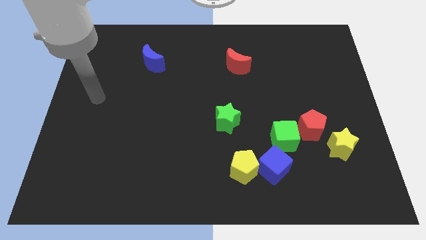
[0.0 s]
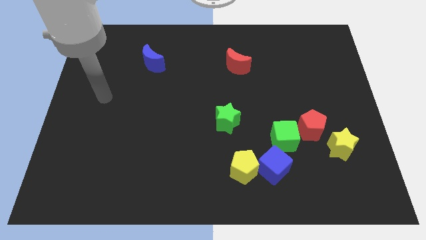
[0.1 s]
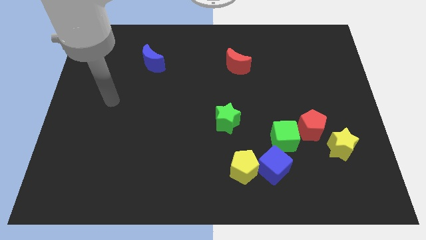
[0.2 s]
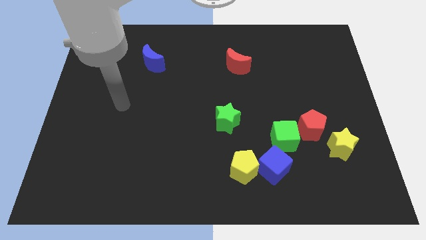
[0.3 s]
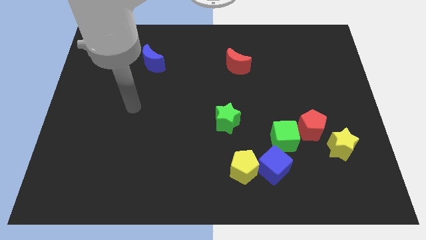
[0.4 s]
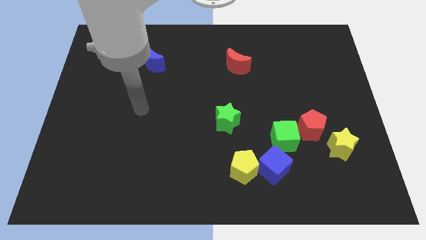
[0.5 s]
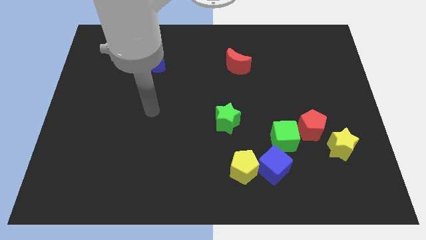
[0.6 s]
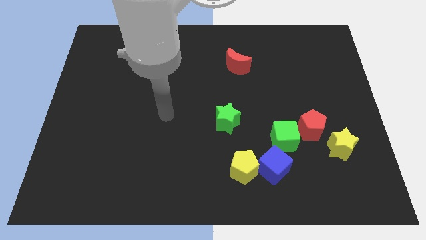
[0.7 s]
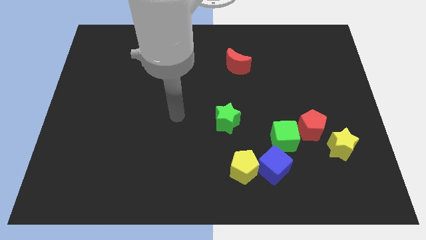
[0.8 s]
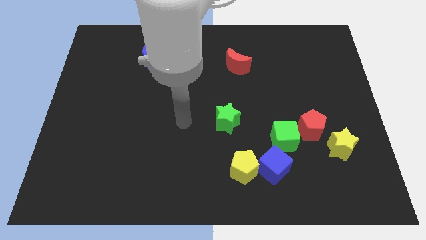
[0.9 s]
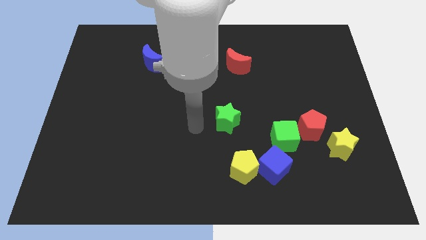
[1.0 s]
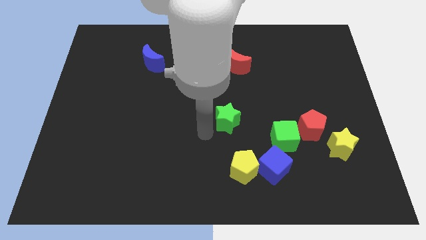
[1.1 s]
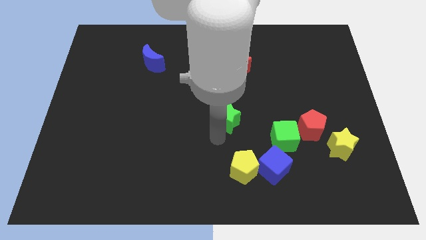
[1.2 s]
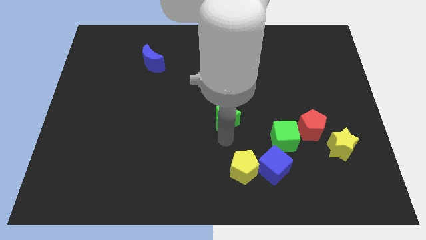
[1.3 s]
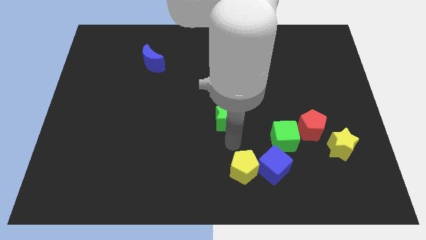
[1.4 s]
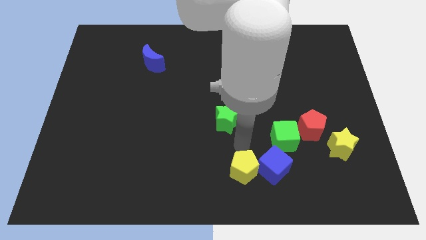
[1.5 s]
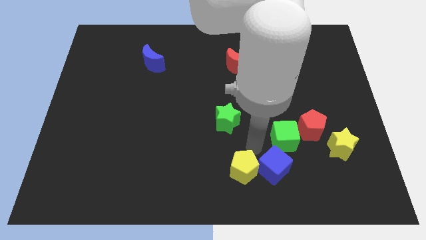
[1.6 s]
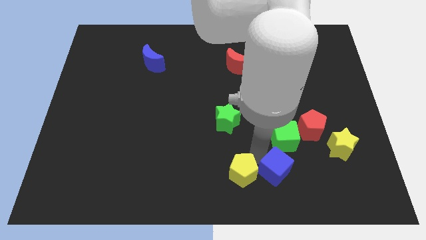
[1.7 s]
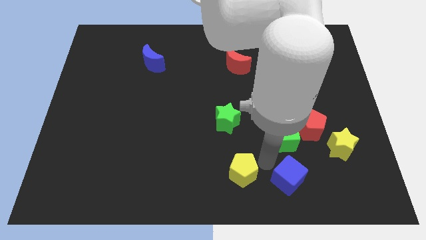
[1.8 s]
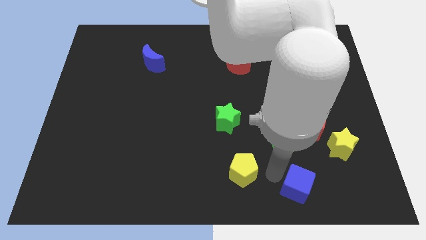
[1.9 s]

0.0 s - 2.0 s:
pull the yellow pentagon apart from the blue cube

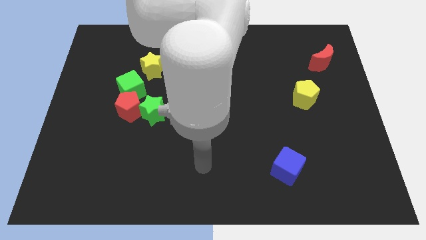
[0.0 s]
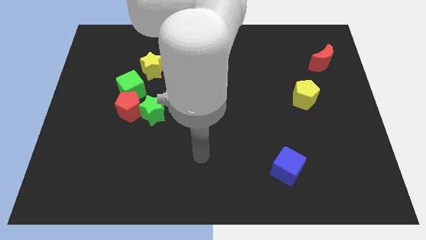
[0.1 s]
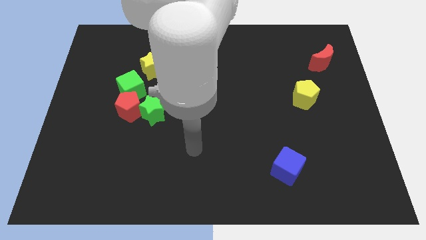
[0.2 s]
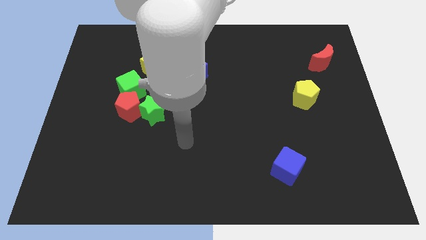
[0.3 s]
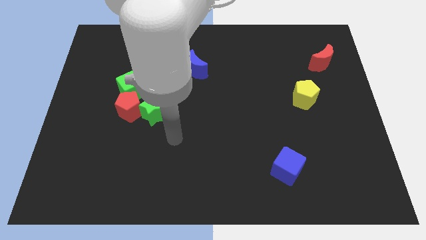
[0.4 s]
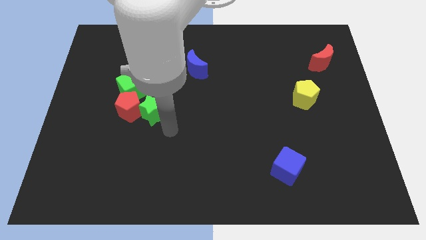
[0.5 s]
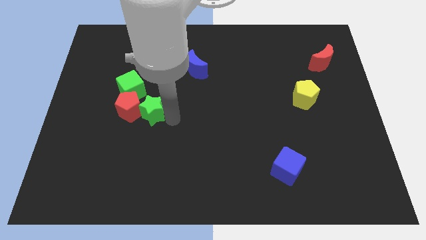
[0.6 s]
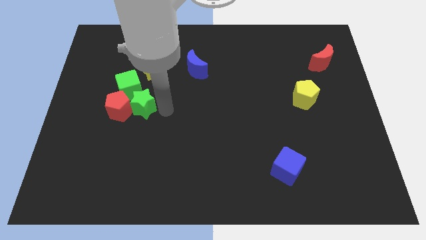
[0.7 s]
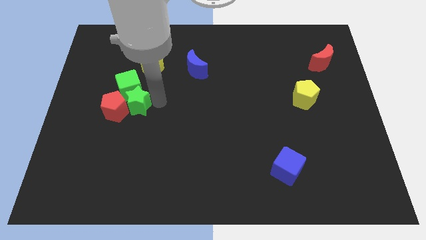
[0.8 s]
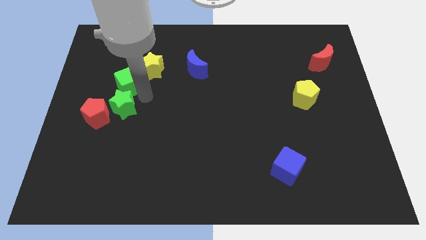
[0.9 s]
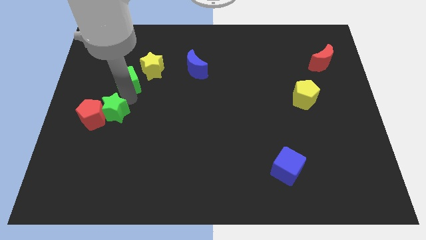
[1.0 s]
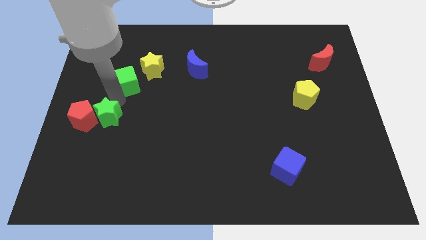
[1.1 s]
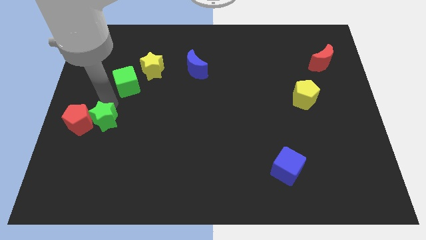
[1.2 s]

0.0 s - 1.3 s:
pull the red pentagon apart from the green cube and green star

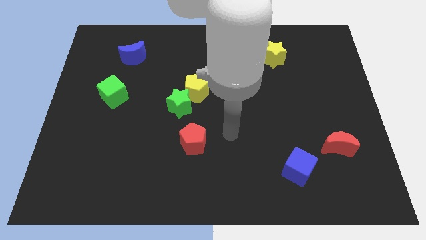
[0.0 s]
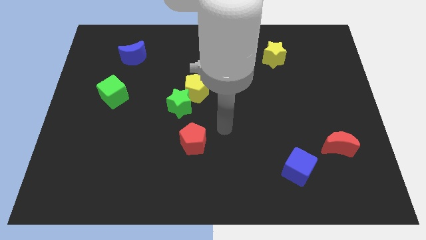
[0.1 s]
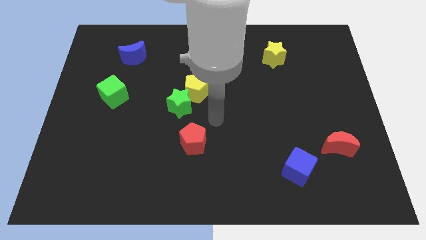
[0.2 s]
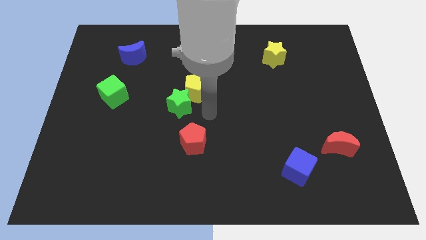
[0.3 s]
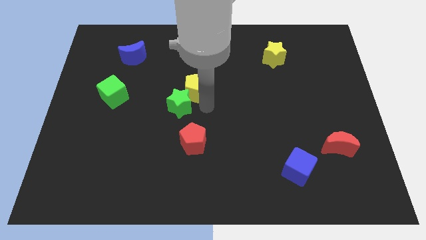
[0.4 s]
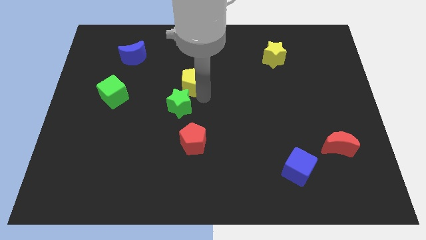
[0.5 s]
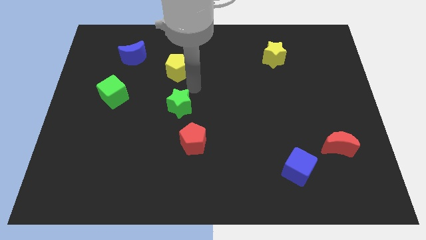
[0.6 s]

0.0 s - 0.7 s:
move the green star away from the yellow pentagon

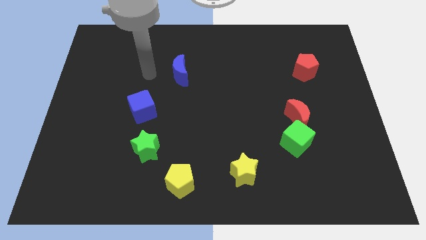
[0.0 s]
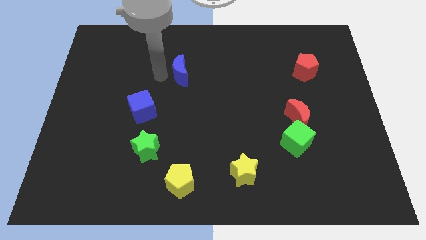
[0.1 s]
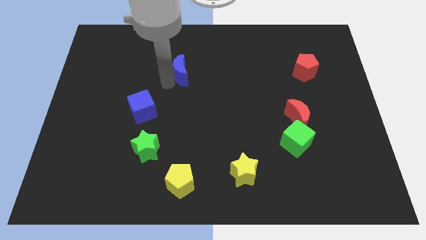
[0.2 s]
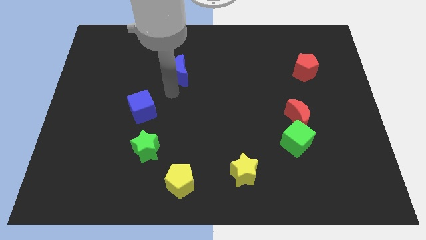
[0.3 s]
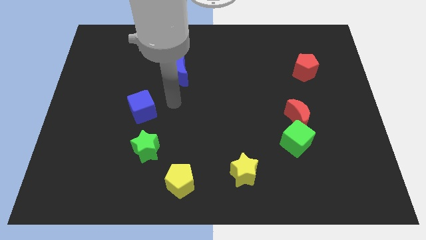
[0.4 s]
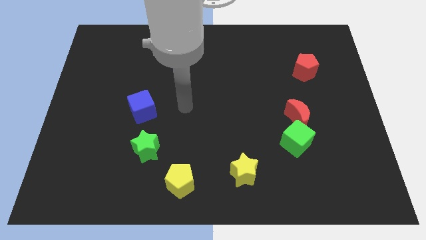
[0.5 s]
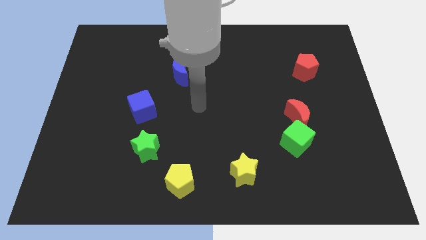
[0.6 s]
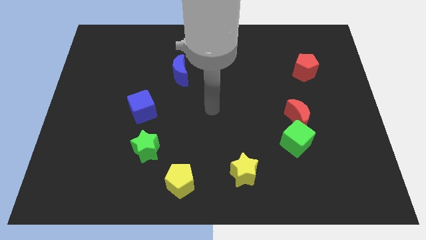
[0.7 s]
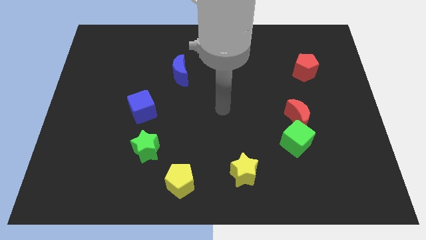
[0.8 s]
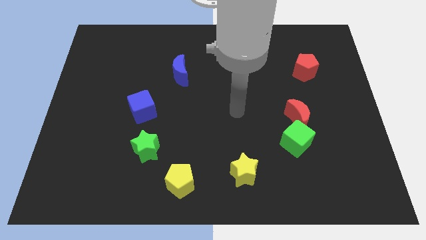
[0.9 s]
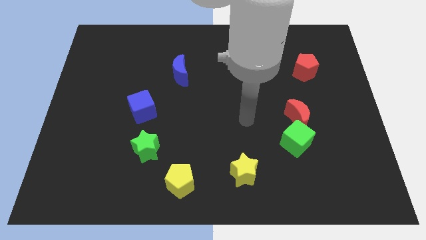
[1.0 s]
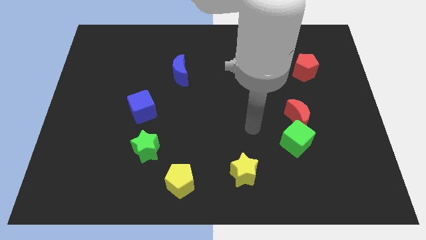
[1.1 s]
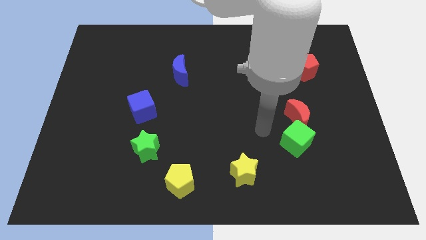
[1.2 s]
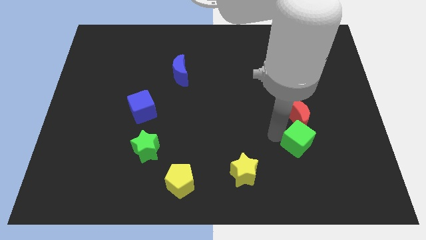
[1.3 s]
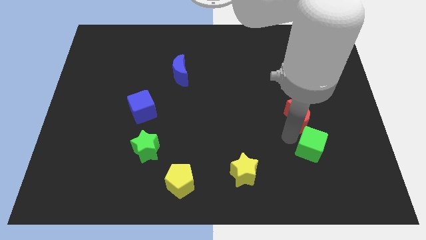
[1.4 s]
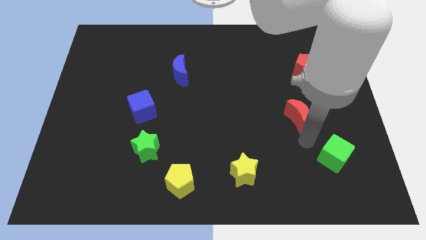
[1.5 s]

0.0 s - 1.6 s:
move the red moon away from the green cube

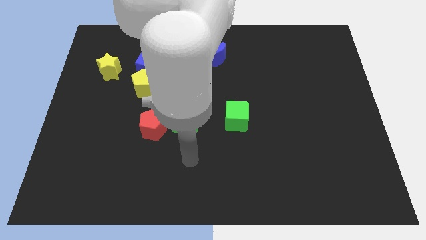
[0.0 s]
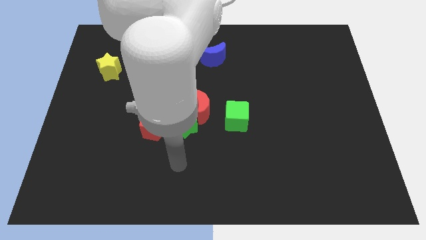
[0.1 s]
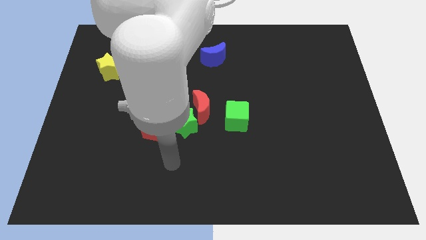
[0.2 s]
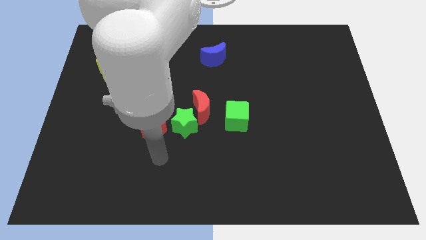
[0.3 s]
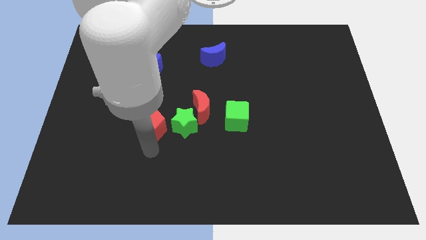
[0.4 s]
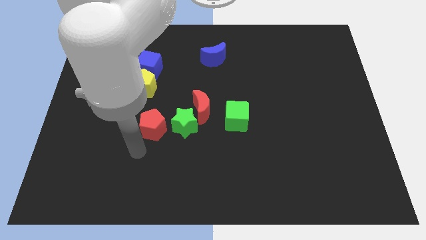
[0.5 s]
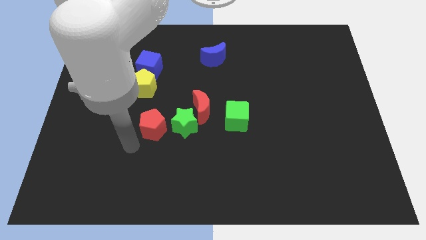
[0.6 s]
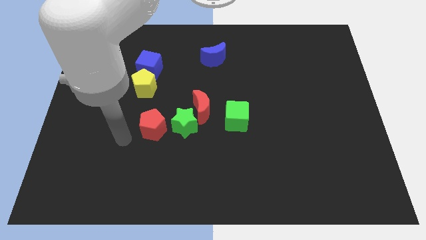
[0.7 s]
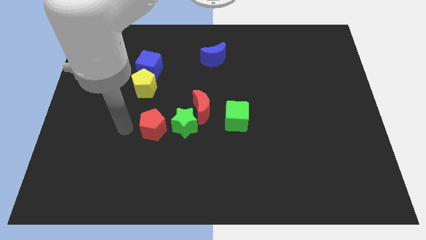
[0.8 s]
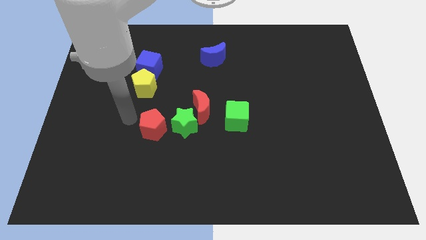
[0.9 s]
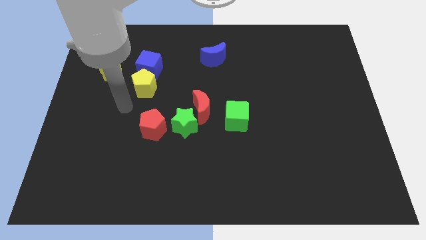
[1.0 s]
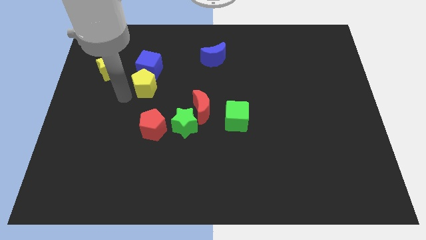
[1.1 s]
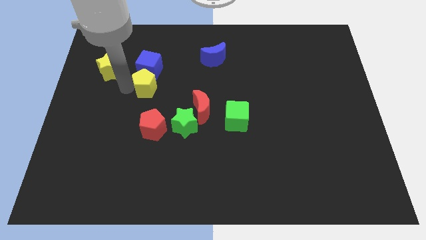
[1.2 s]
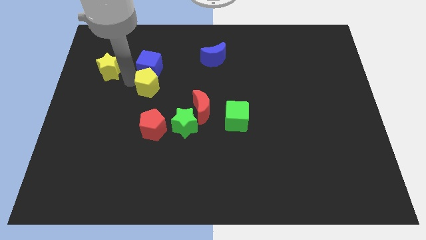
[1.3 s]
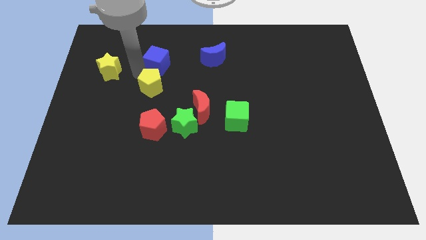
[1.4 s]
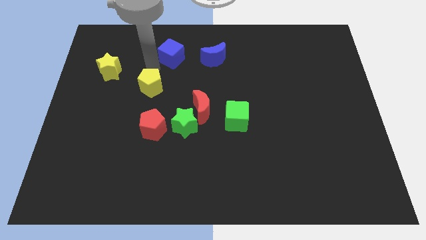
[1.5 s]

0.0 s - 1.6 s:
move the yellow pentagon away from the blue cube

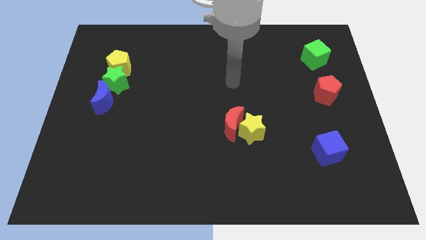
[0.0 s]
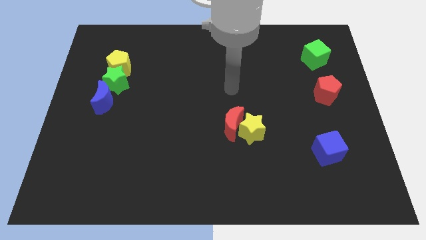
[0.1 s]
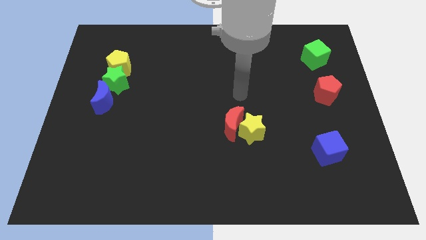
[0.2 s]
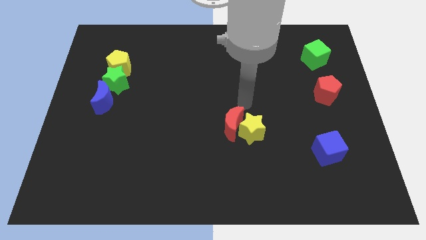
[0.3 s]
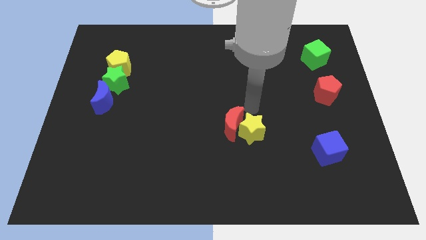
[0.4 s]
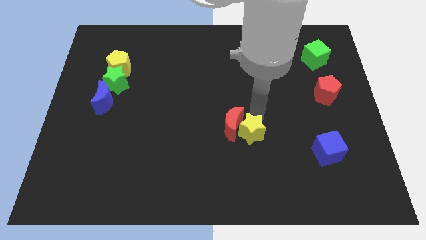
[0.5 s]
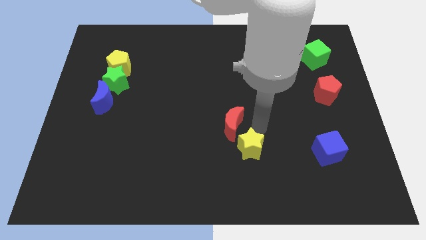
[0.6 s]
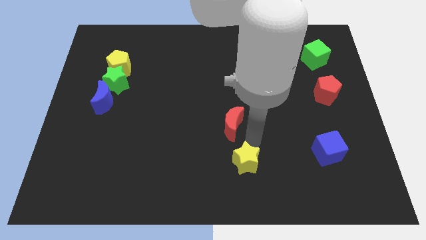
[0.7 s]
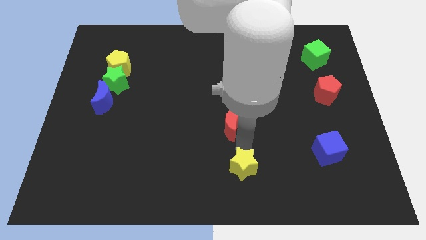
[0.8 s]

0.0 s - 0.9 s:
move the red moon away from the yellow star

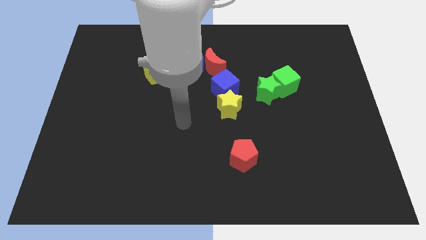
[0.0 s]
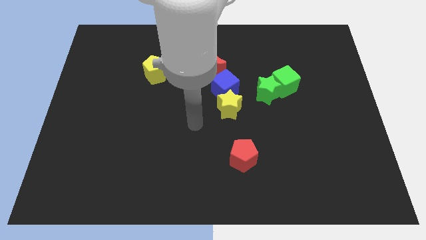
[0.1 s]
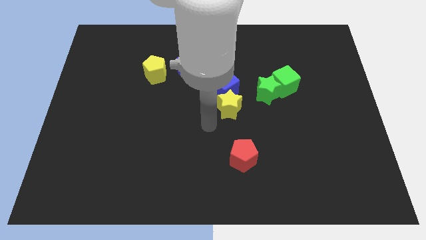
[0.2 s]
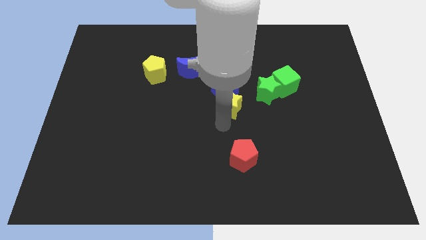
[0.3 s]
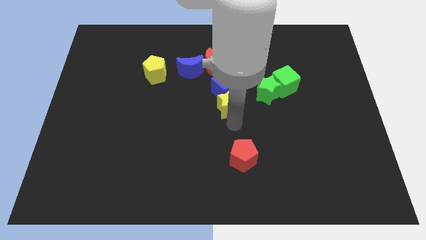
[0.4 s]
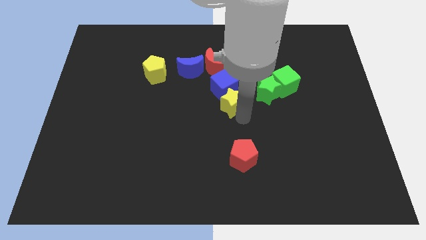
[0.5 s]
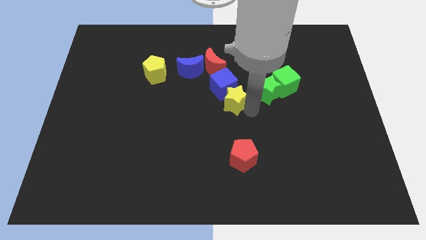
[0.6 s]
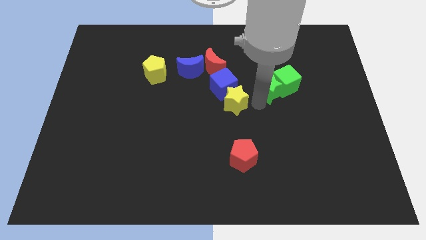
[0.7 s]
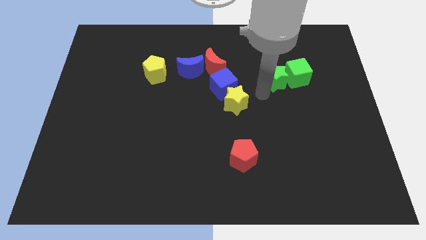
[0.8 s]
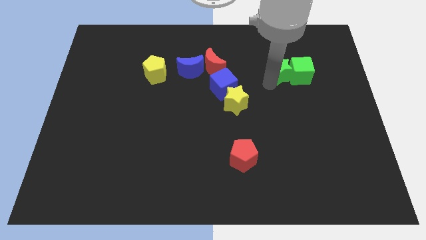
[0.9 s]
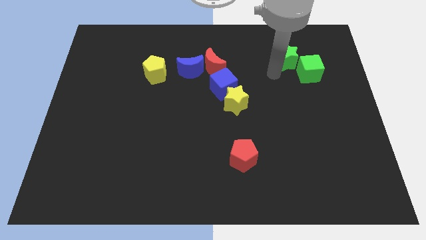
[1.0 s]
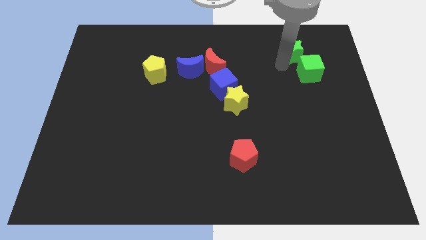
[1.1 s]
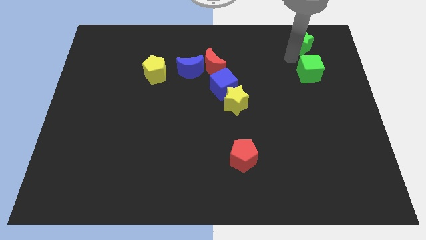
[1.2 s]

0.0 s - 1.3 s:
pull the green cube apart from the green star
